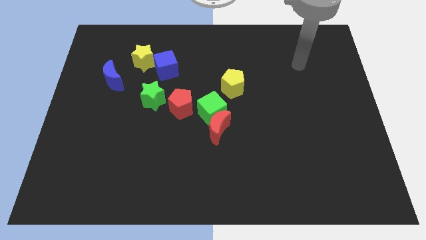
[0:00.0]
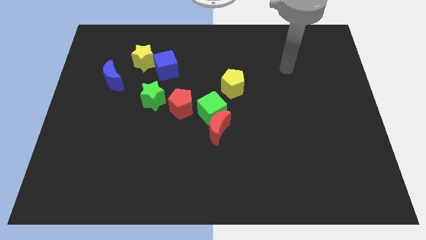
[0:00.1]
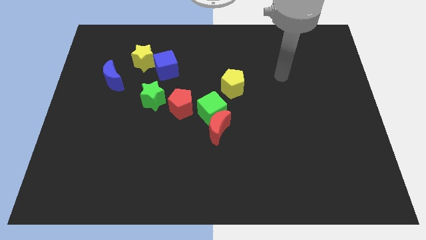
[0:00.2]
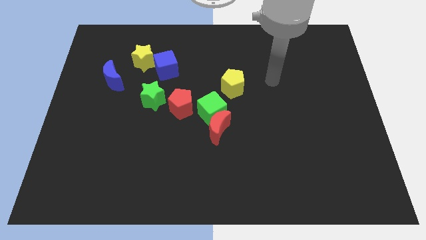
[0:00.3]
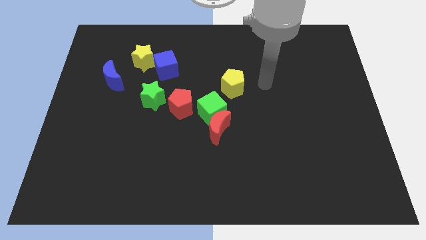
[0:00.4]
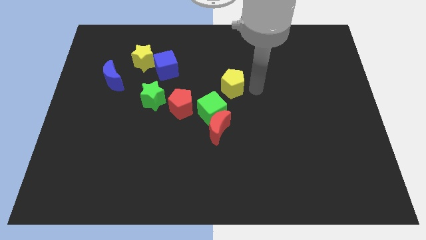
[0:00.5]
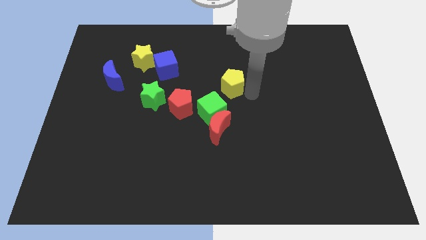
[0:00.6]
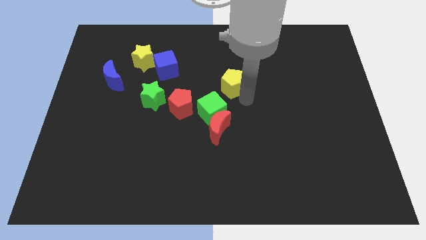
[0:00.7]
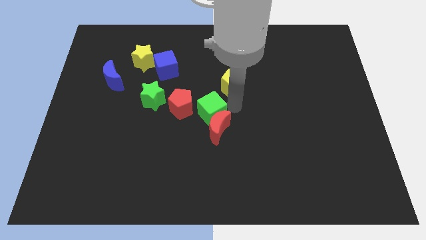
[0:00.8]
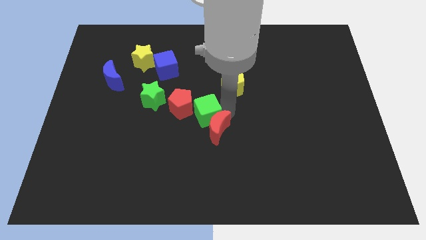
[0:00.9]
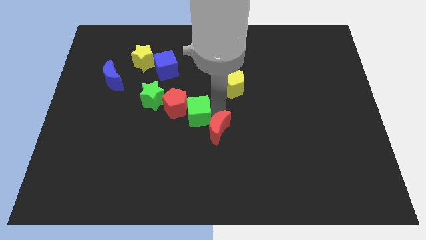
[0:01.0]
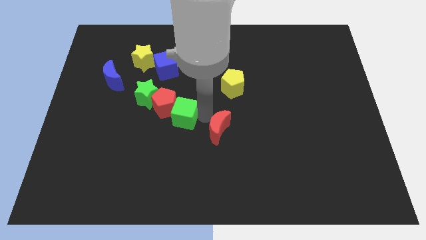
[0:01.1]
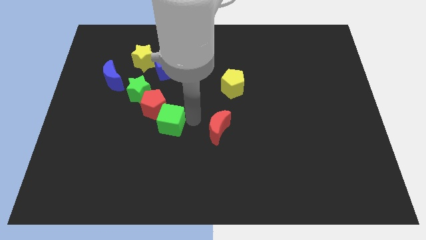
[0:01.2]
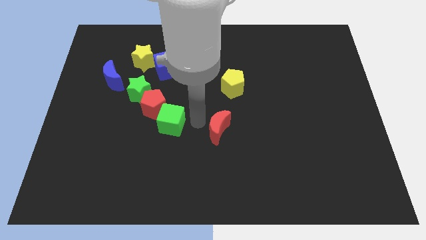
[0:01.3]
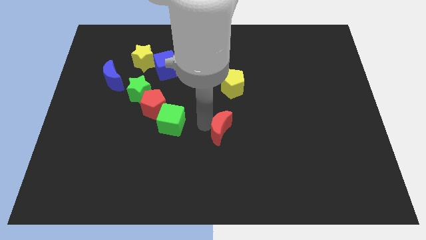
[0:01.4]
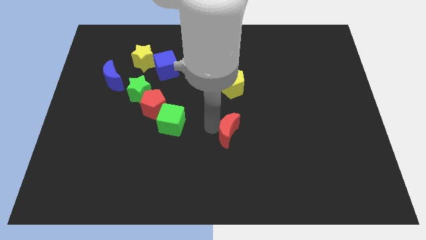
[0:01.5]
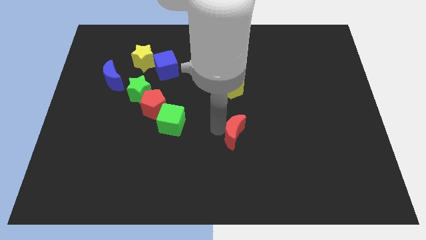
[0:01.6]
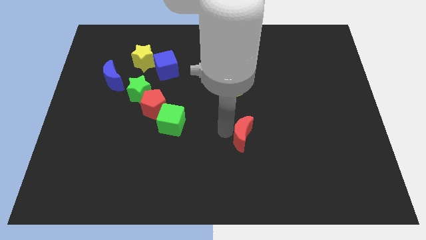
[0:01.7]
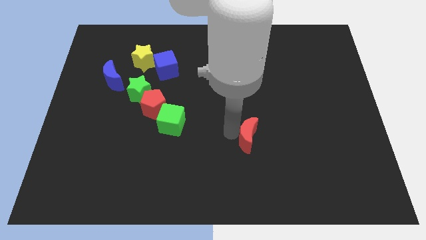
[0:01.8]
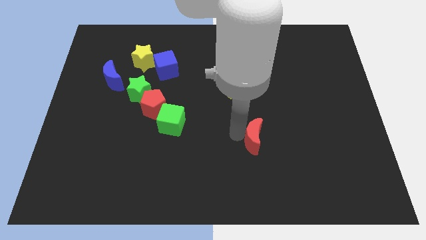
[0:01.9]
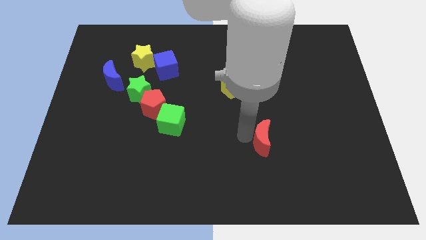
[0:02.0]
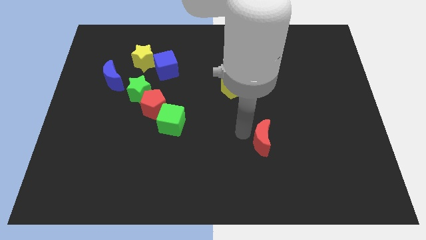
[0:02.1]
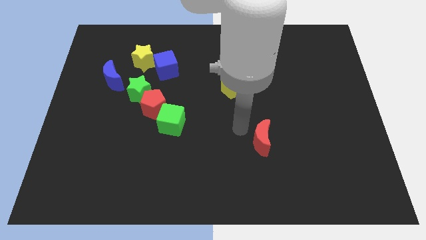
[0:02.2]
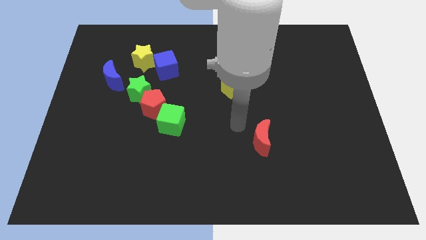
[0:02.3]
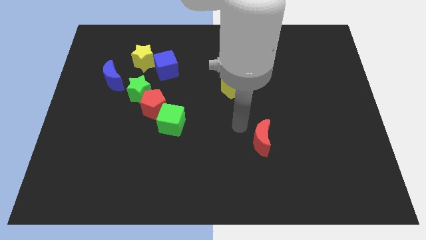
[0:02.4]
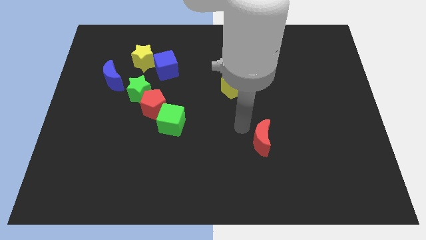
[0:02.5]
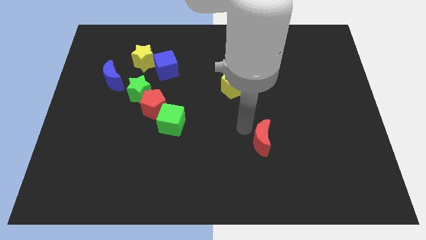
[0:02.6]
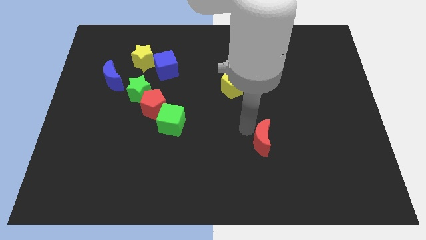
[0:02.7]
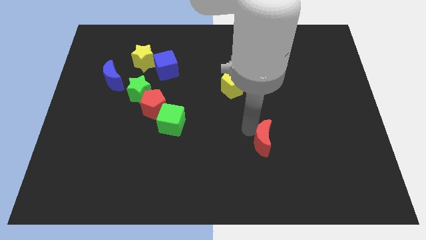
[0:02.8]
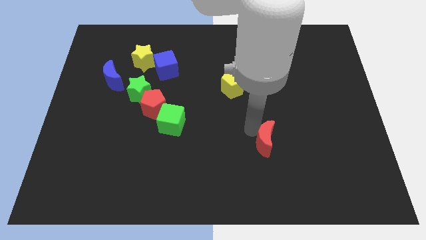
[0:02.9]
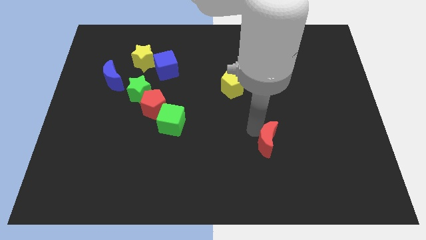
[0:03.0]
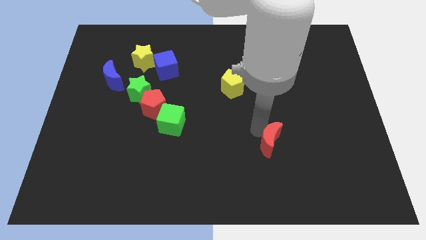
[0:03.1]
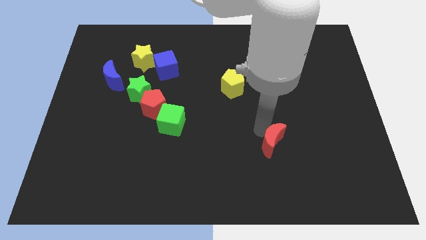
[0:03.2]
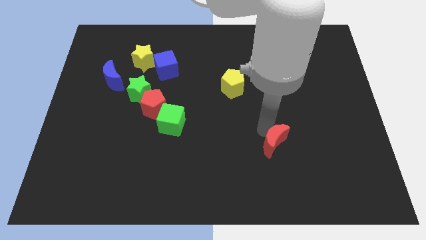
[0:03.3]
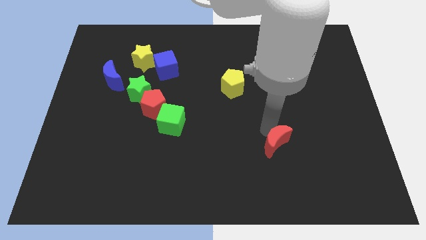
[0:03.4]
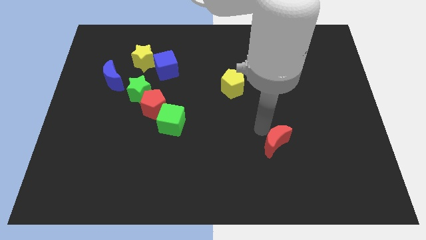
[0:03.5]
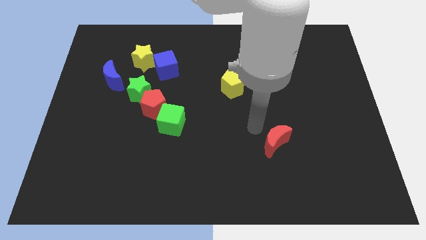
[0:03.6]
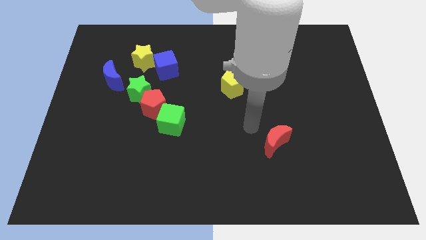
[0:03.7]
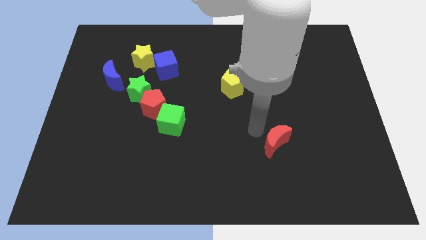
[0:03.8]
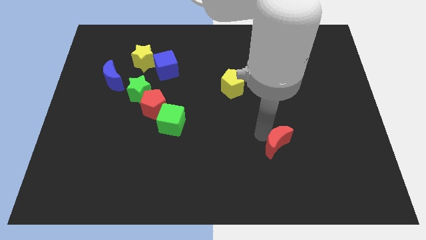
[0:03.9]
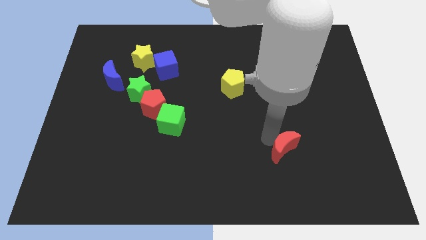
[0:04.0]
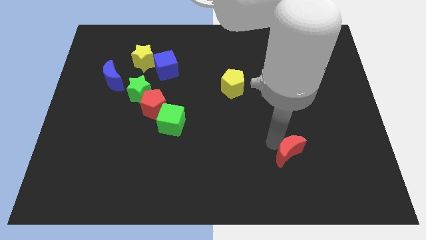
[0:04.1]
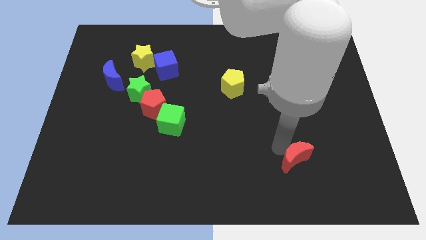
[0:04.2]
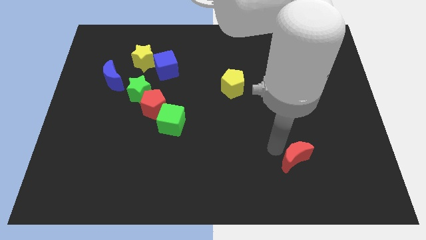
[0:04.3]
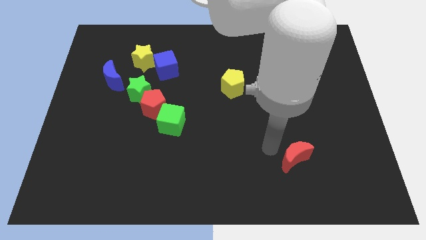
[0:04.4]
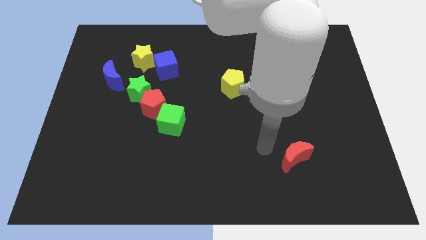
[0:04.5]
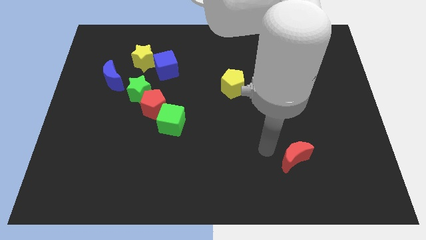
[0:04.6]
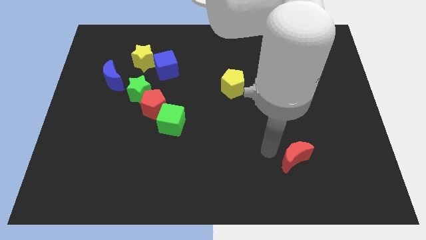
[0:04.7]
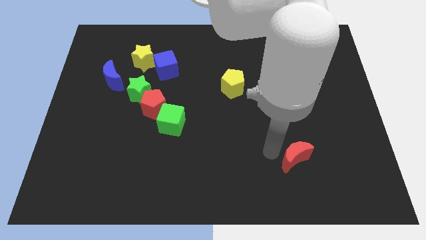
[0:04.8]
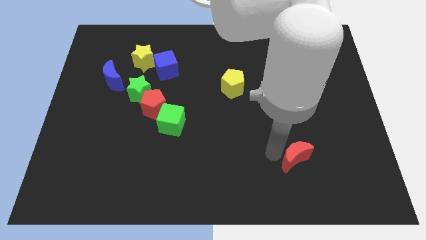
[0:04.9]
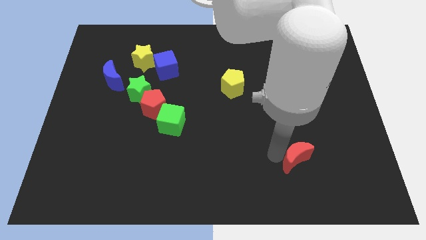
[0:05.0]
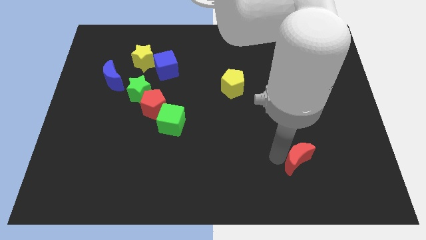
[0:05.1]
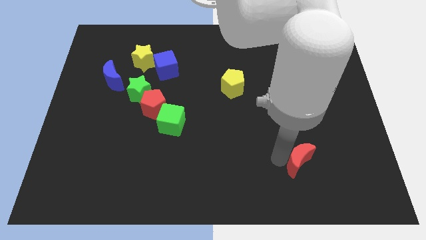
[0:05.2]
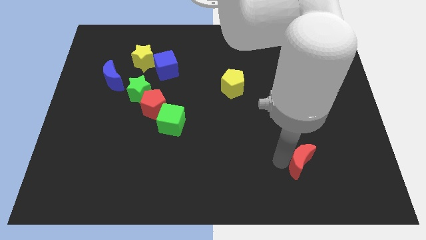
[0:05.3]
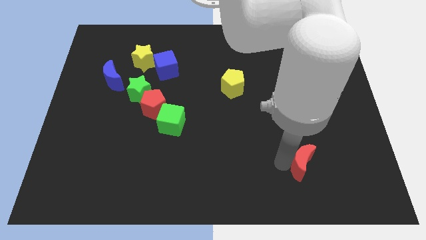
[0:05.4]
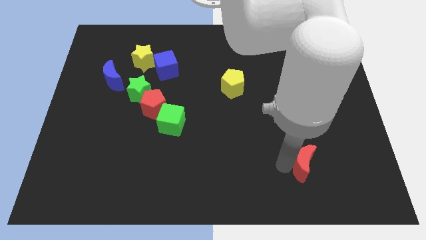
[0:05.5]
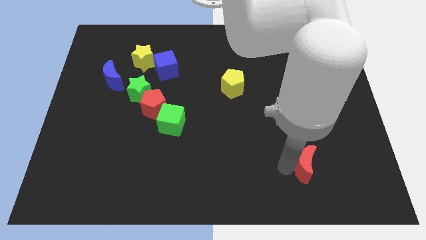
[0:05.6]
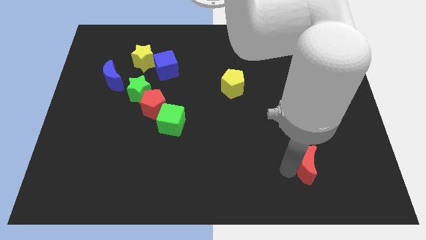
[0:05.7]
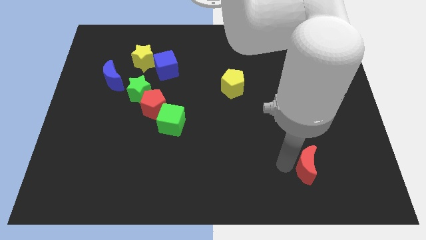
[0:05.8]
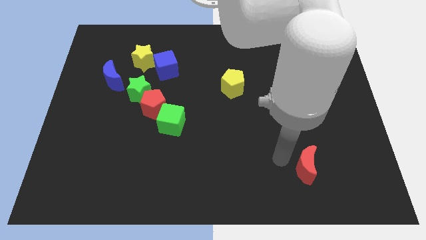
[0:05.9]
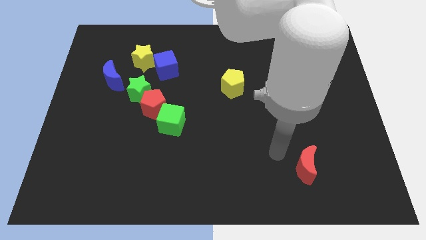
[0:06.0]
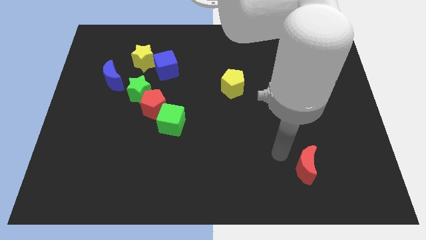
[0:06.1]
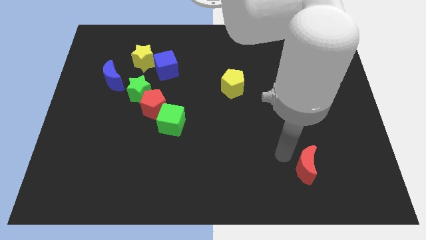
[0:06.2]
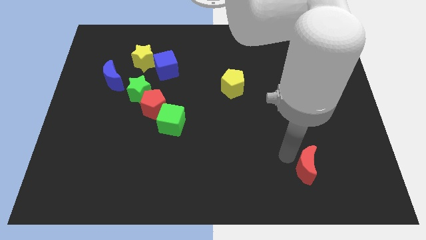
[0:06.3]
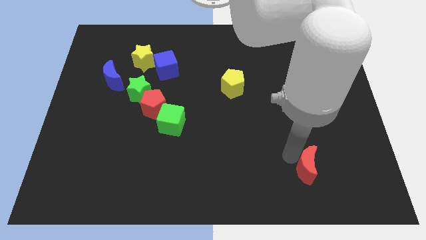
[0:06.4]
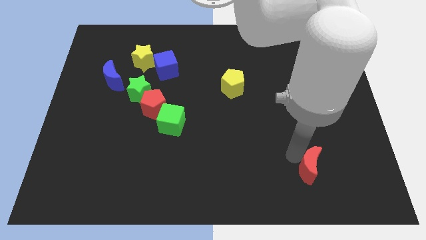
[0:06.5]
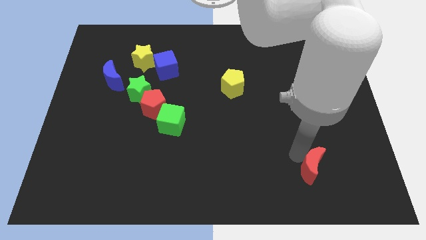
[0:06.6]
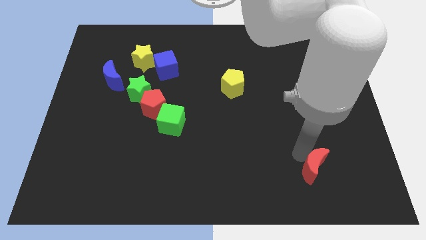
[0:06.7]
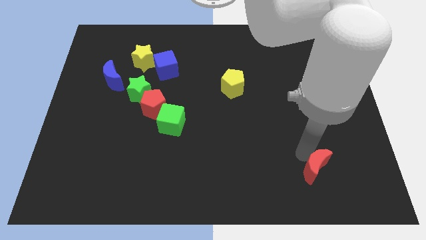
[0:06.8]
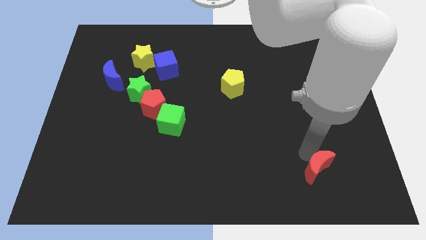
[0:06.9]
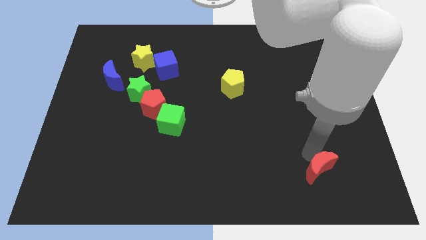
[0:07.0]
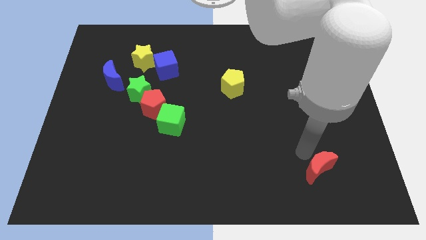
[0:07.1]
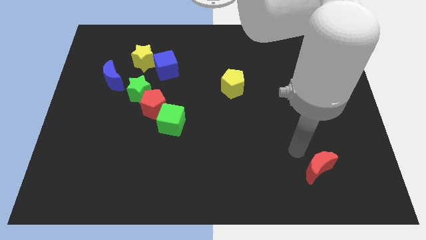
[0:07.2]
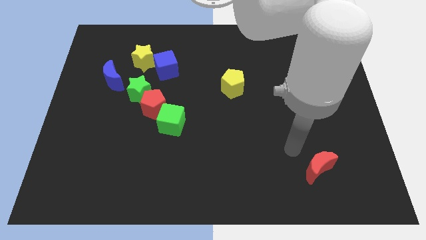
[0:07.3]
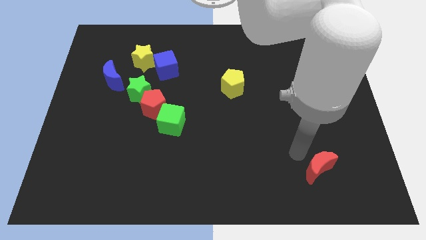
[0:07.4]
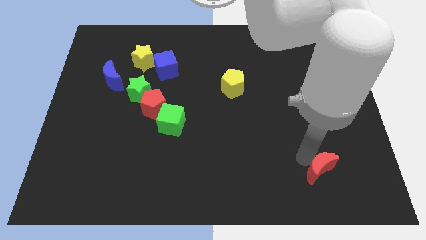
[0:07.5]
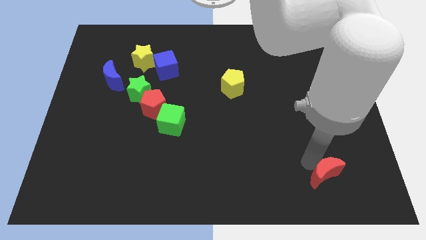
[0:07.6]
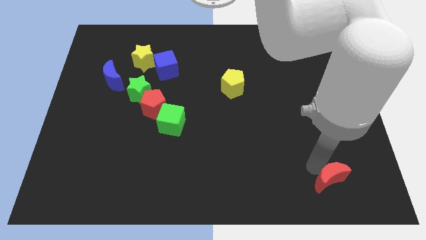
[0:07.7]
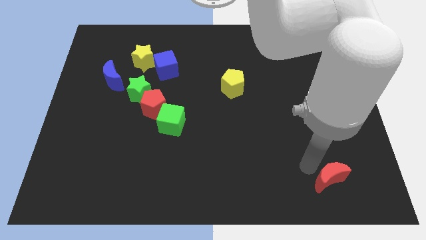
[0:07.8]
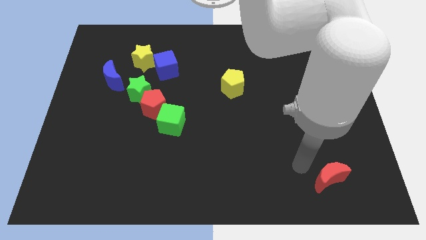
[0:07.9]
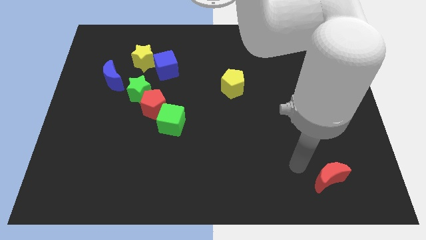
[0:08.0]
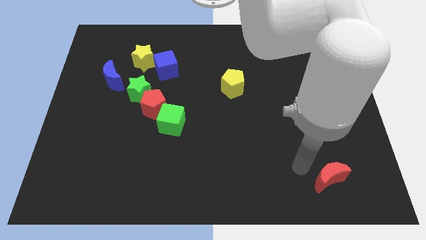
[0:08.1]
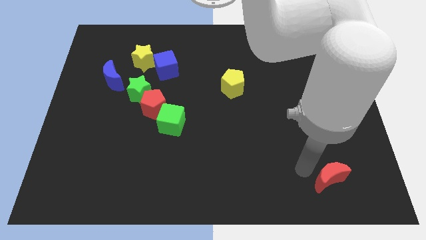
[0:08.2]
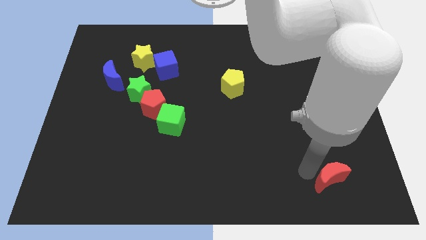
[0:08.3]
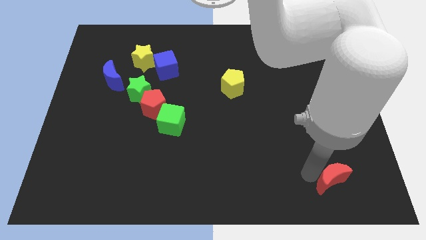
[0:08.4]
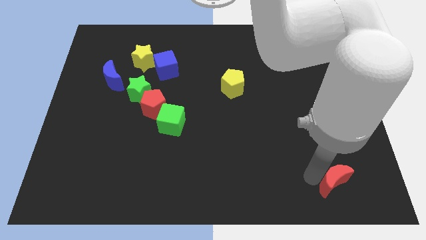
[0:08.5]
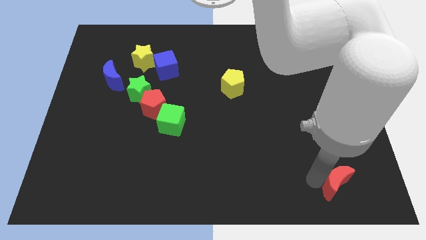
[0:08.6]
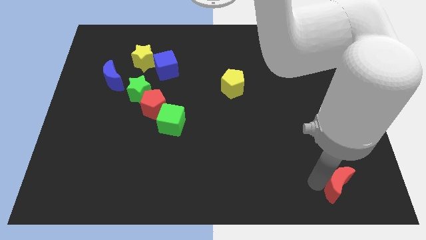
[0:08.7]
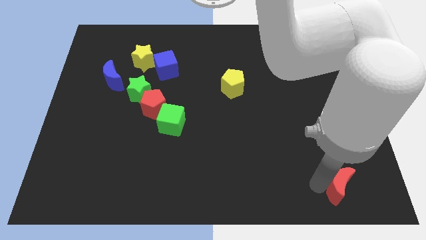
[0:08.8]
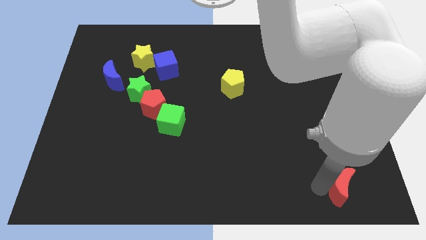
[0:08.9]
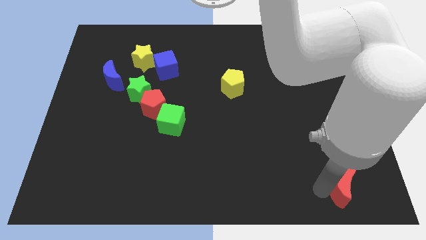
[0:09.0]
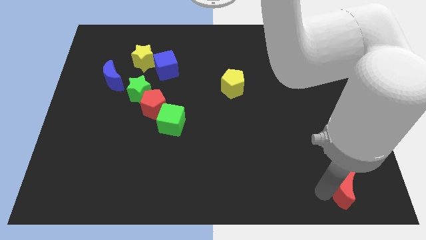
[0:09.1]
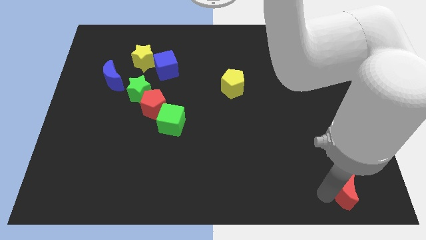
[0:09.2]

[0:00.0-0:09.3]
move the red moon to the bottom right of the board
